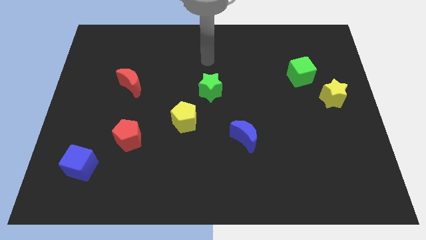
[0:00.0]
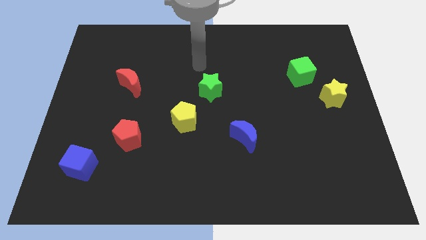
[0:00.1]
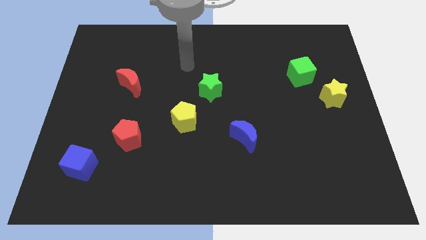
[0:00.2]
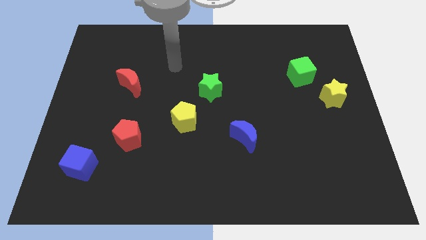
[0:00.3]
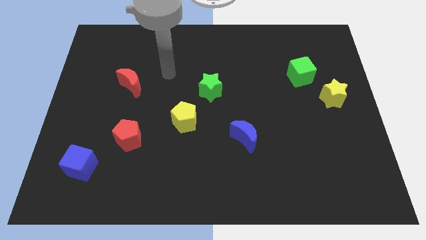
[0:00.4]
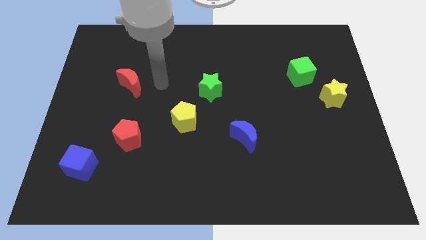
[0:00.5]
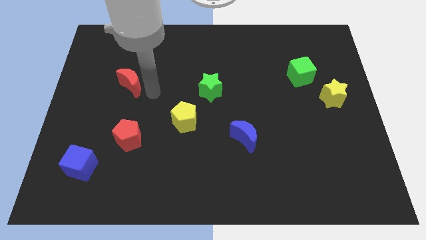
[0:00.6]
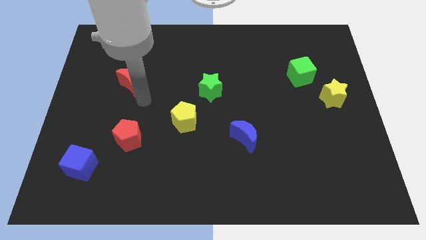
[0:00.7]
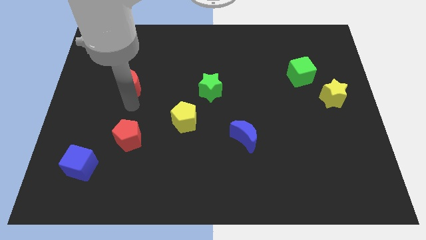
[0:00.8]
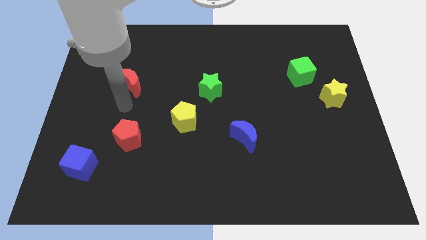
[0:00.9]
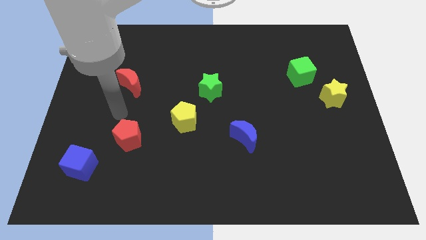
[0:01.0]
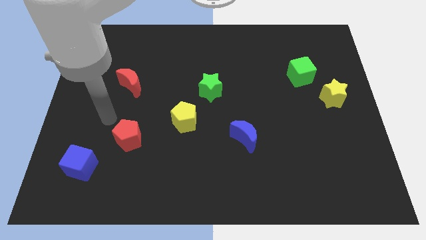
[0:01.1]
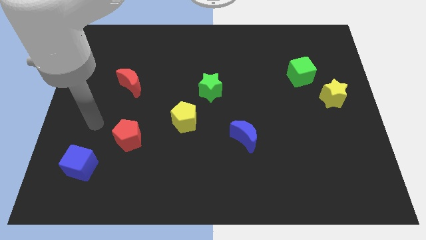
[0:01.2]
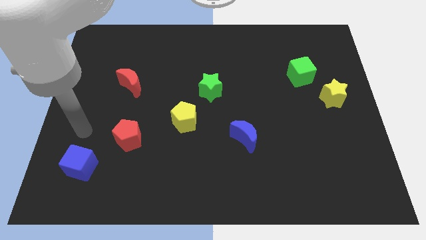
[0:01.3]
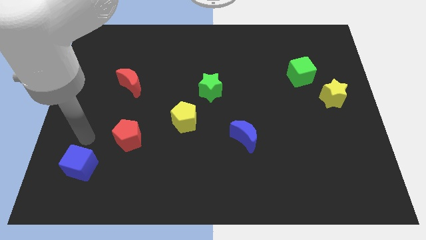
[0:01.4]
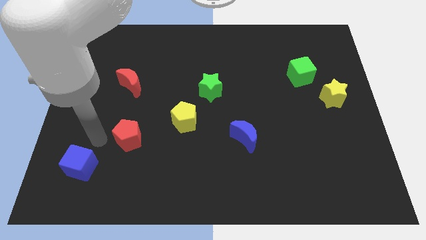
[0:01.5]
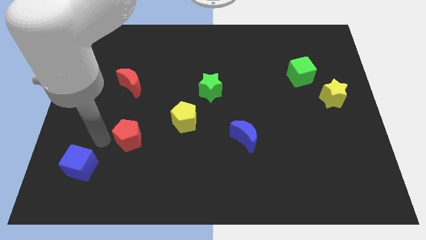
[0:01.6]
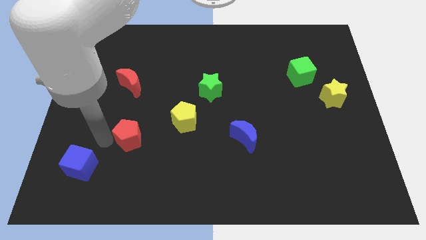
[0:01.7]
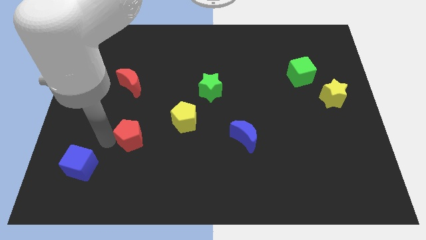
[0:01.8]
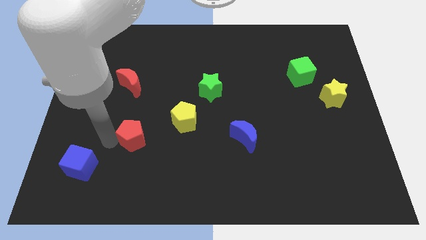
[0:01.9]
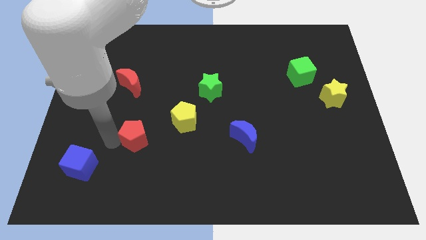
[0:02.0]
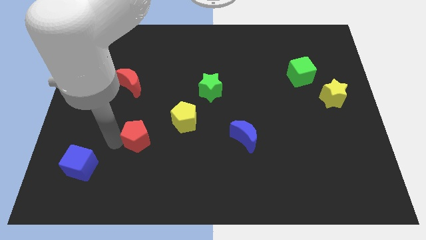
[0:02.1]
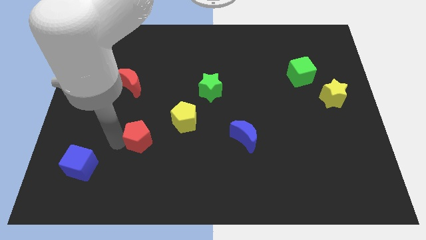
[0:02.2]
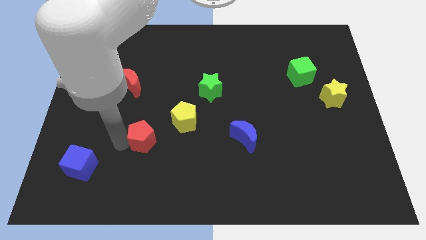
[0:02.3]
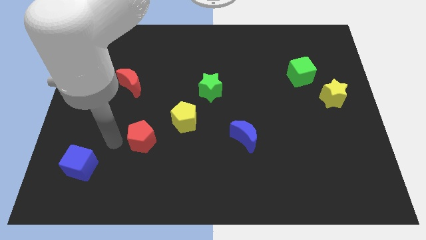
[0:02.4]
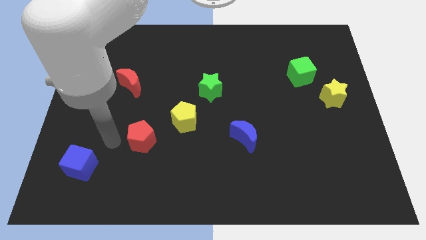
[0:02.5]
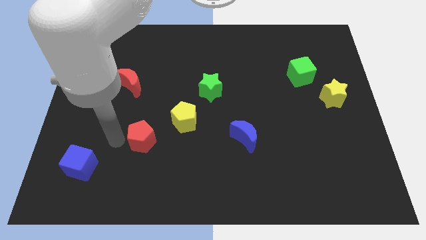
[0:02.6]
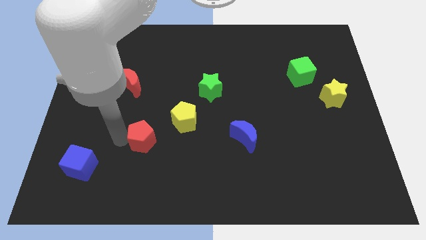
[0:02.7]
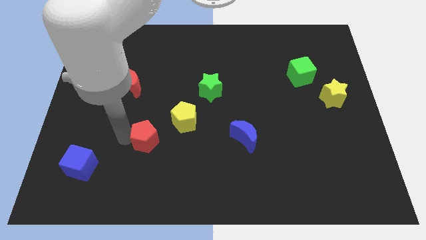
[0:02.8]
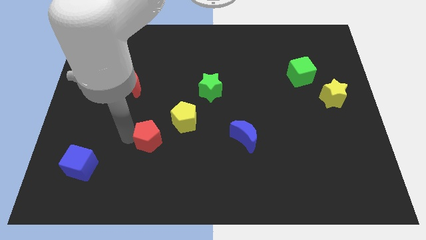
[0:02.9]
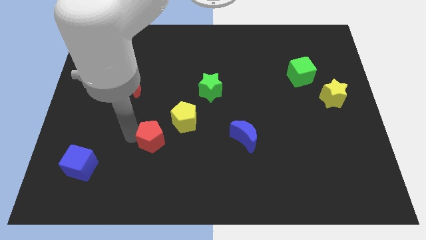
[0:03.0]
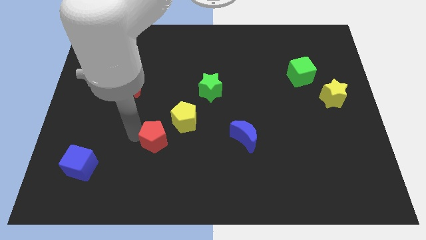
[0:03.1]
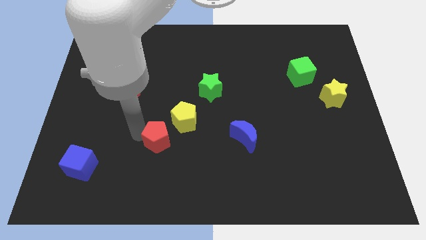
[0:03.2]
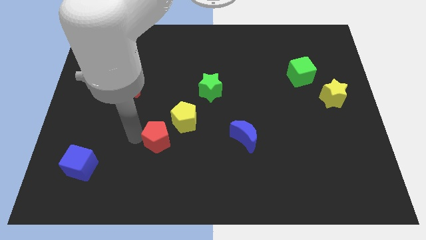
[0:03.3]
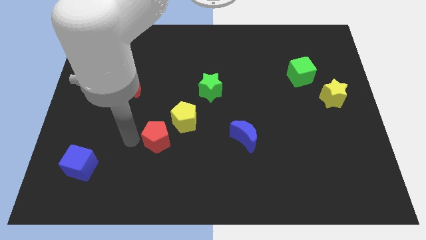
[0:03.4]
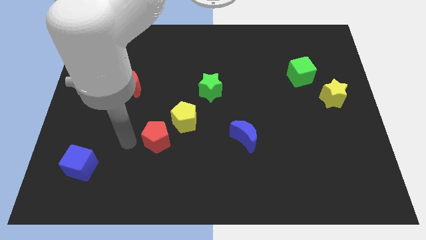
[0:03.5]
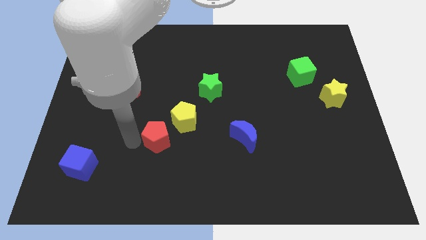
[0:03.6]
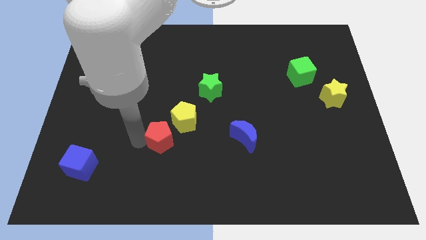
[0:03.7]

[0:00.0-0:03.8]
slightly push the red pentagon right

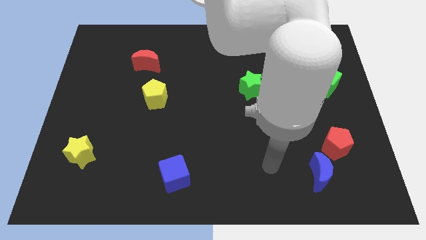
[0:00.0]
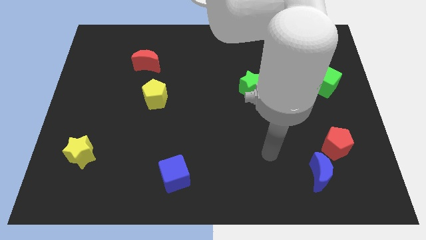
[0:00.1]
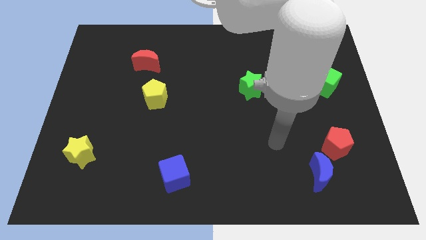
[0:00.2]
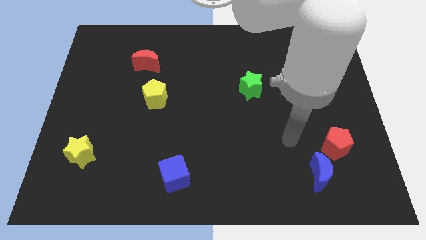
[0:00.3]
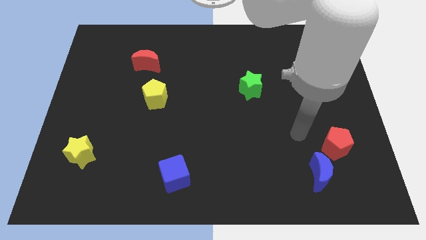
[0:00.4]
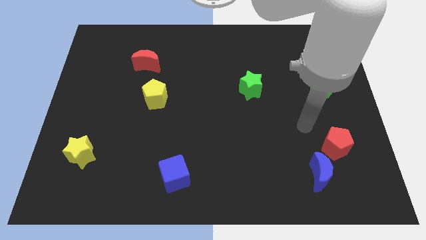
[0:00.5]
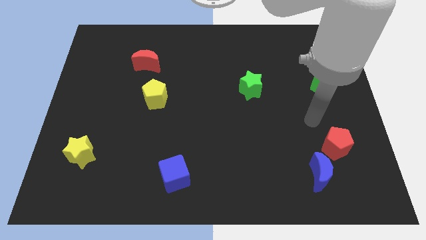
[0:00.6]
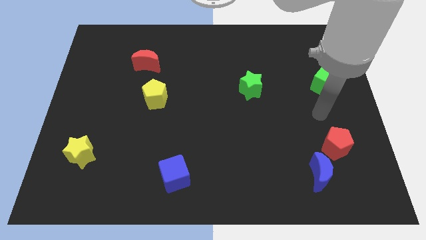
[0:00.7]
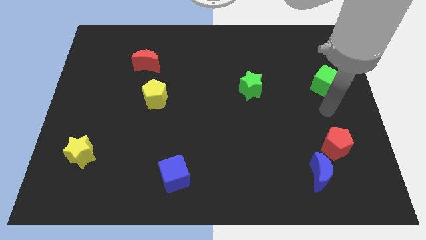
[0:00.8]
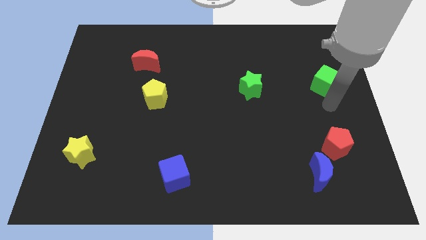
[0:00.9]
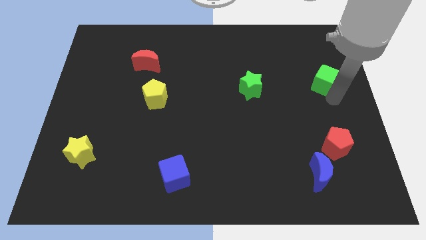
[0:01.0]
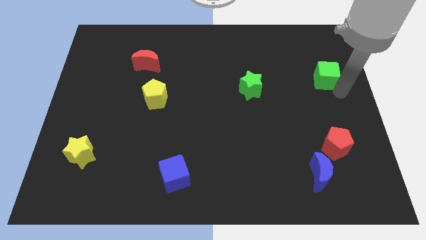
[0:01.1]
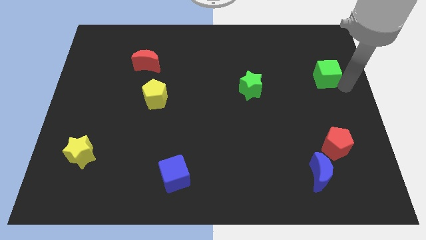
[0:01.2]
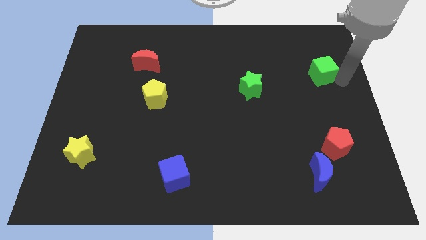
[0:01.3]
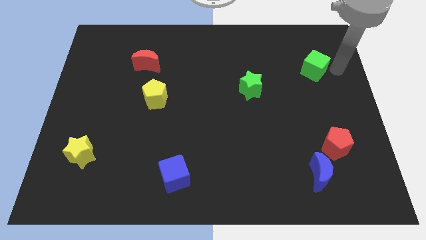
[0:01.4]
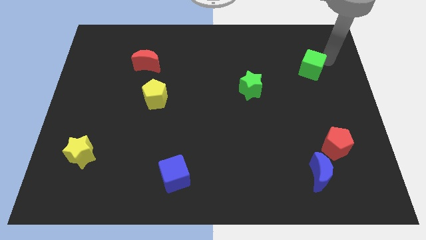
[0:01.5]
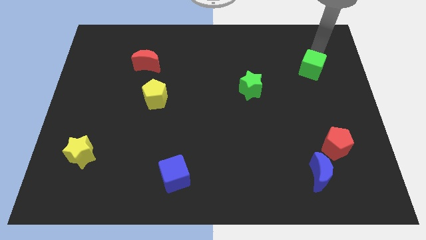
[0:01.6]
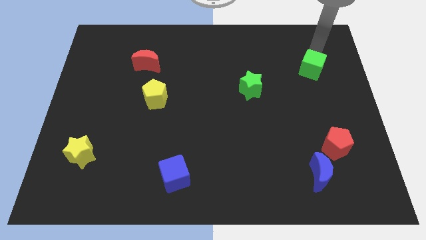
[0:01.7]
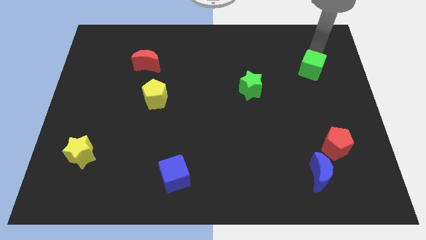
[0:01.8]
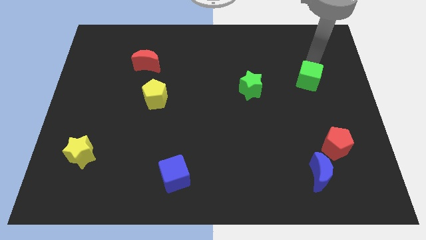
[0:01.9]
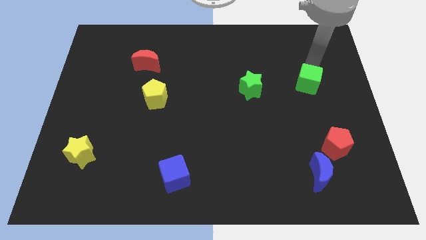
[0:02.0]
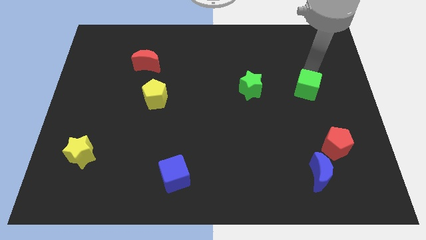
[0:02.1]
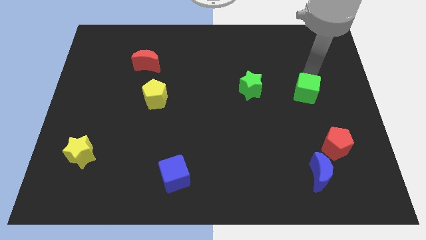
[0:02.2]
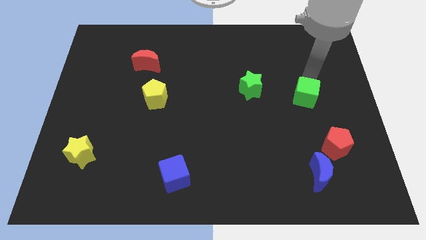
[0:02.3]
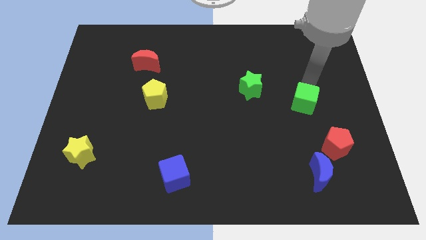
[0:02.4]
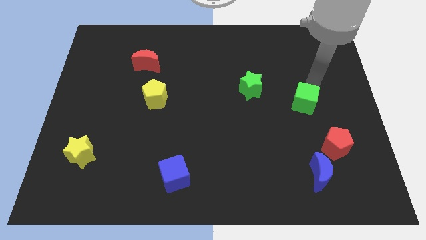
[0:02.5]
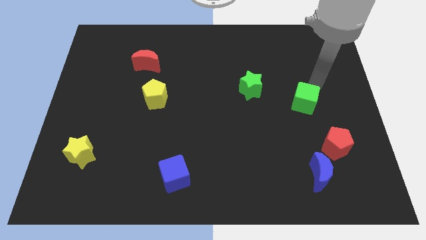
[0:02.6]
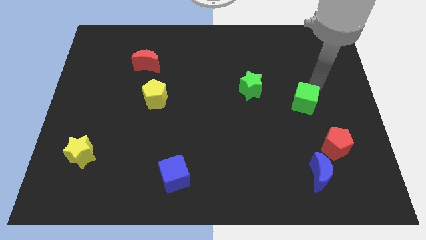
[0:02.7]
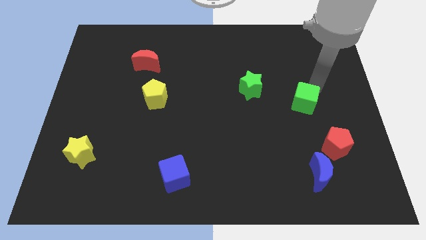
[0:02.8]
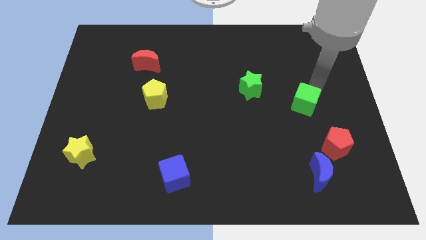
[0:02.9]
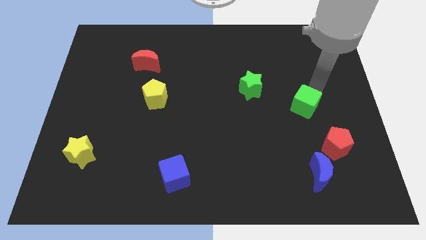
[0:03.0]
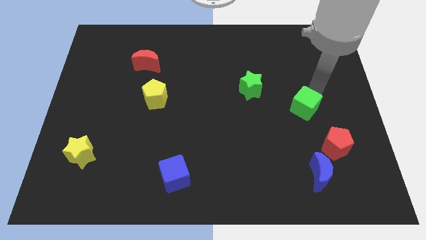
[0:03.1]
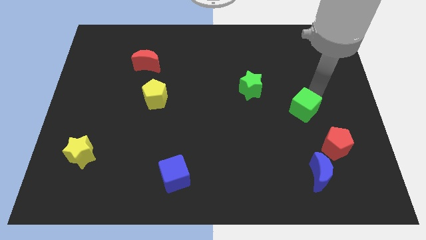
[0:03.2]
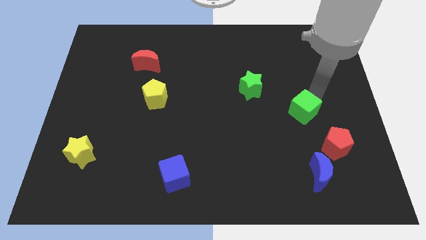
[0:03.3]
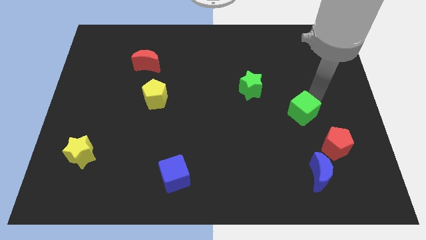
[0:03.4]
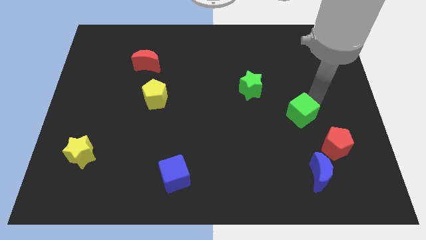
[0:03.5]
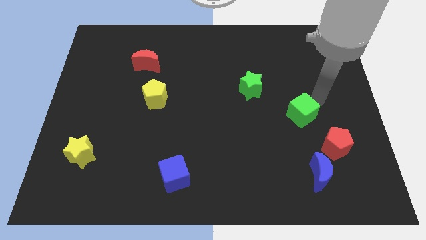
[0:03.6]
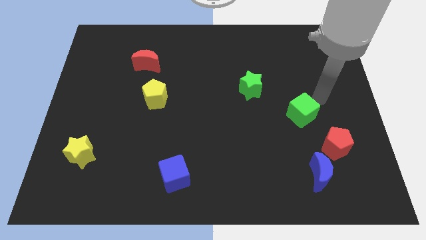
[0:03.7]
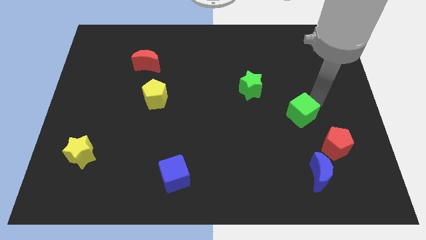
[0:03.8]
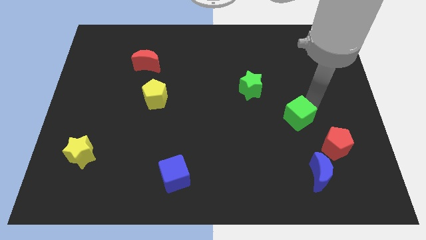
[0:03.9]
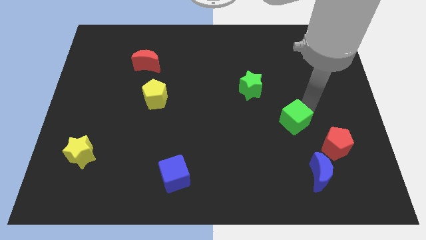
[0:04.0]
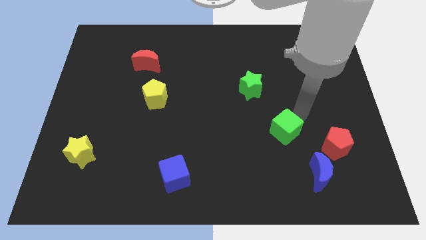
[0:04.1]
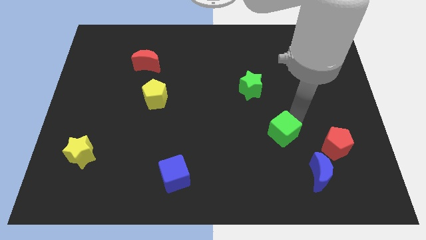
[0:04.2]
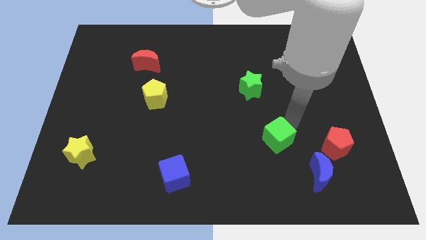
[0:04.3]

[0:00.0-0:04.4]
slide the green cube downwards and then left
